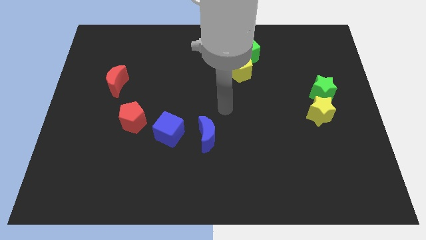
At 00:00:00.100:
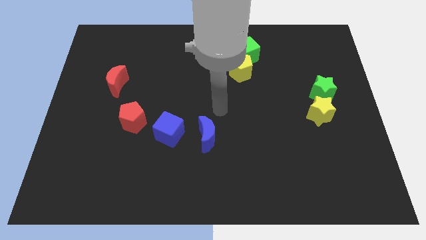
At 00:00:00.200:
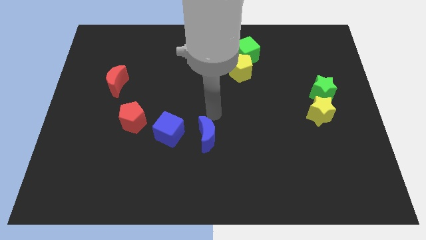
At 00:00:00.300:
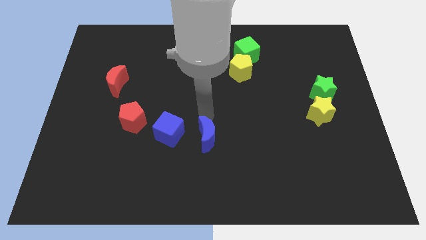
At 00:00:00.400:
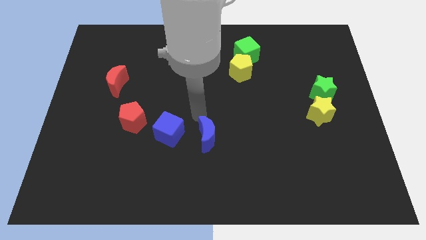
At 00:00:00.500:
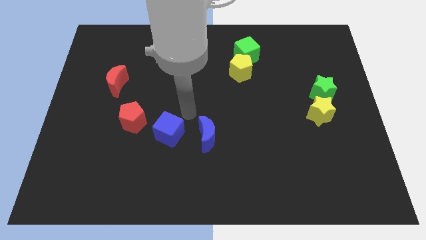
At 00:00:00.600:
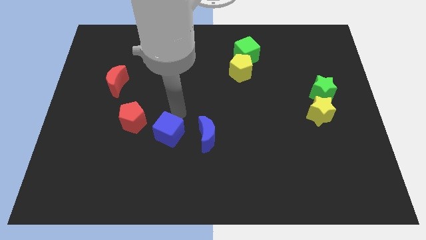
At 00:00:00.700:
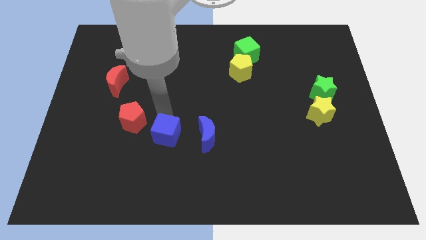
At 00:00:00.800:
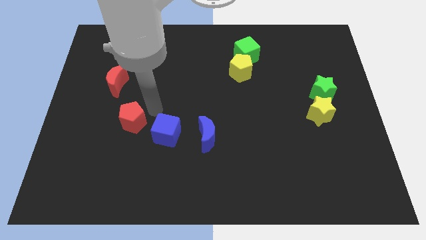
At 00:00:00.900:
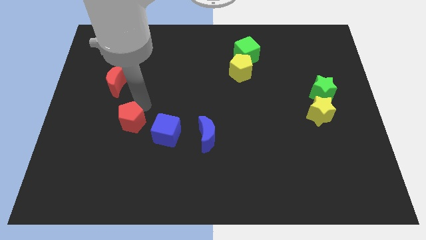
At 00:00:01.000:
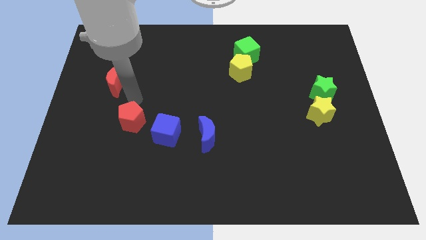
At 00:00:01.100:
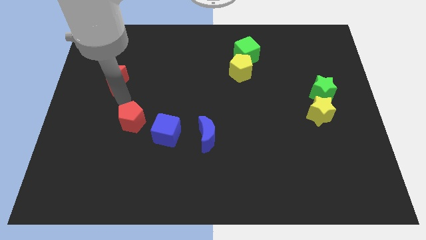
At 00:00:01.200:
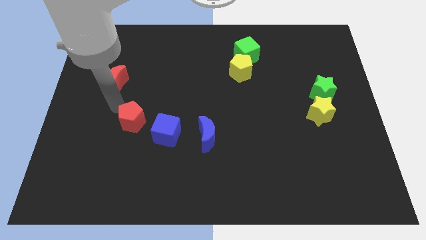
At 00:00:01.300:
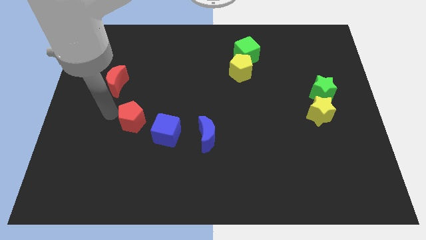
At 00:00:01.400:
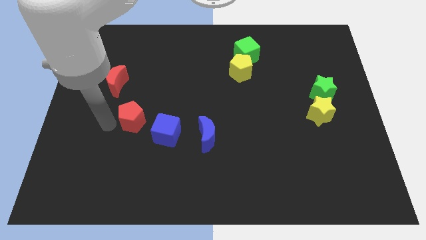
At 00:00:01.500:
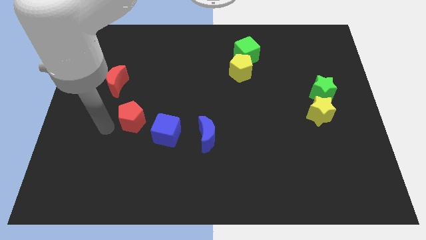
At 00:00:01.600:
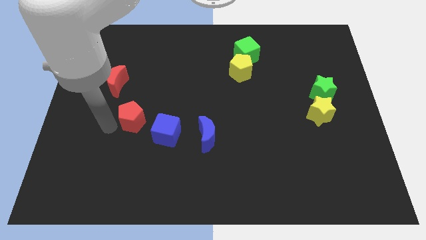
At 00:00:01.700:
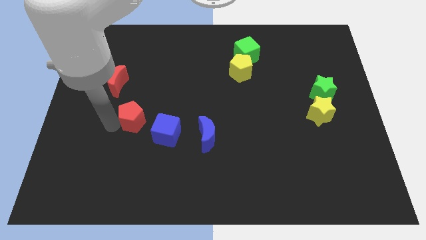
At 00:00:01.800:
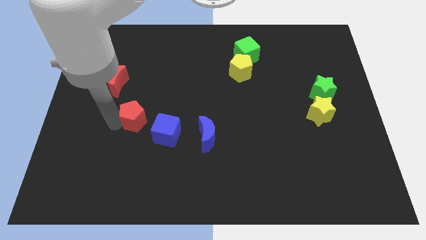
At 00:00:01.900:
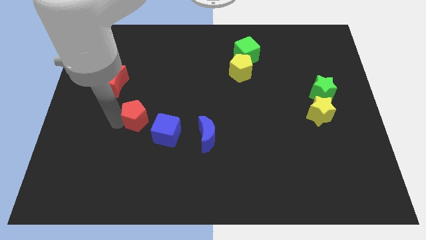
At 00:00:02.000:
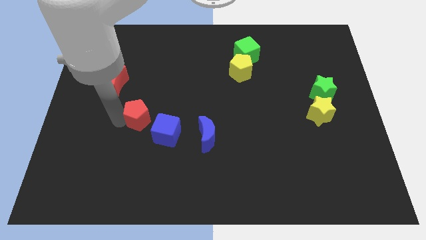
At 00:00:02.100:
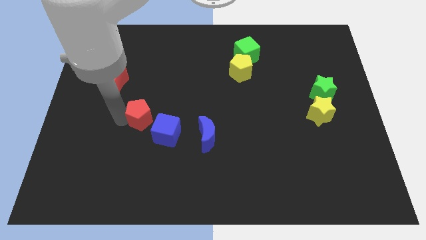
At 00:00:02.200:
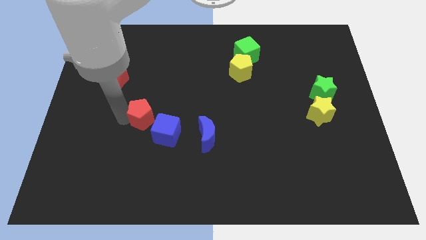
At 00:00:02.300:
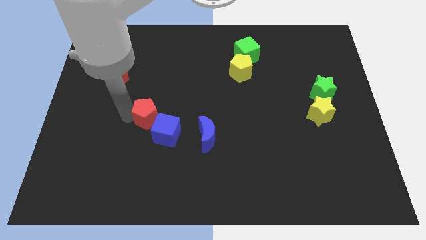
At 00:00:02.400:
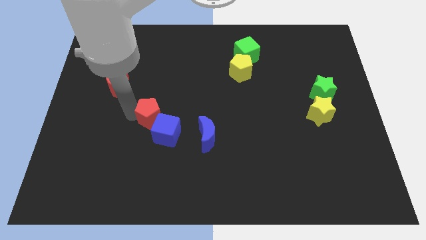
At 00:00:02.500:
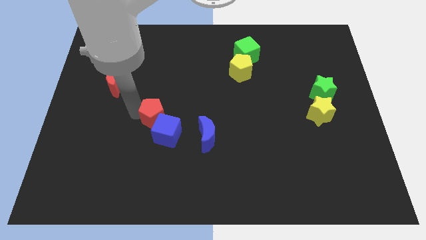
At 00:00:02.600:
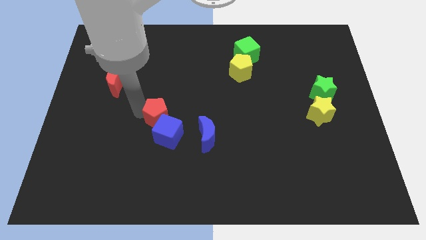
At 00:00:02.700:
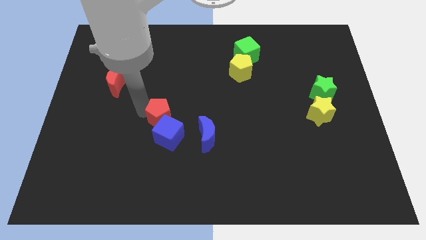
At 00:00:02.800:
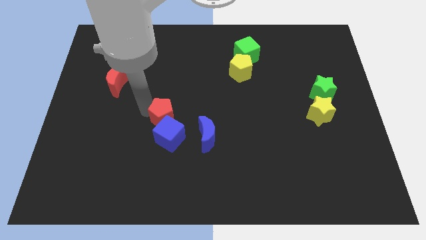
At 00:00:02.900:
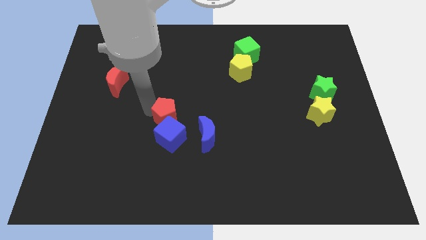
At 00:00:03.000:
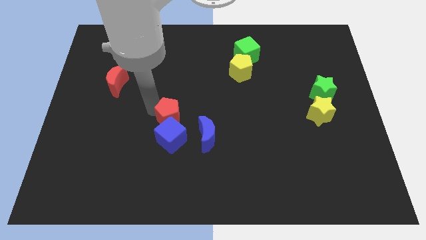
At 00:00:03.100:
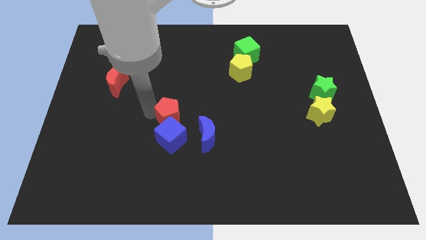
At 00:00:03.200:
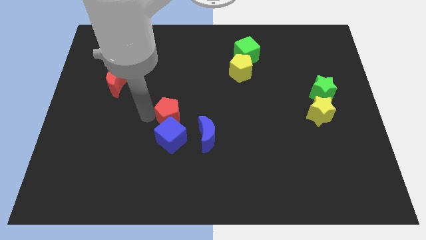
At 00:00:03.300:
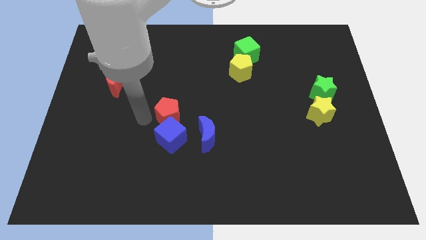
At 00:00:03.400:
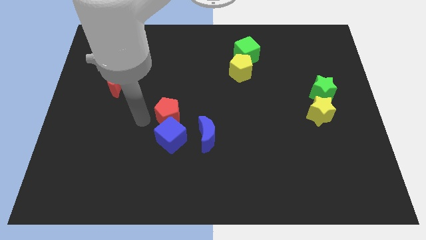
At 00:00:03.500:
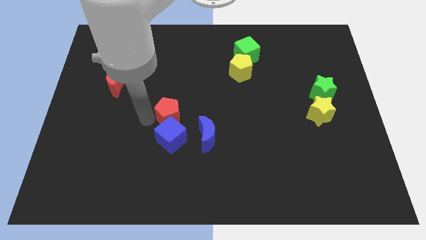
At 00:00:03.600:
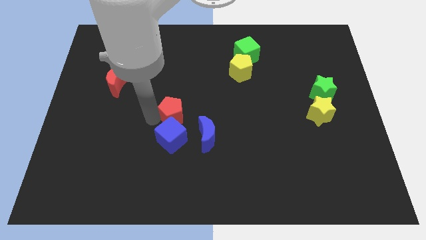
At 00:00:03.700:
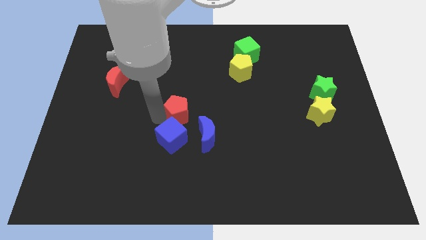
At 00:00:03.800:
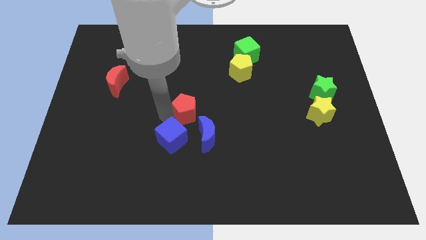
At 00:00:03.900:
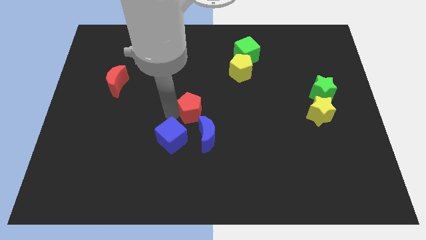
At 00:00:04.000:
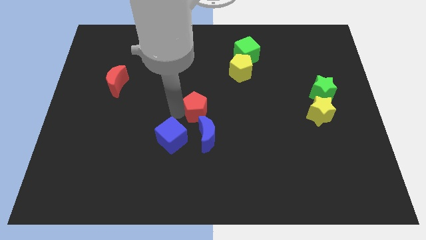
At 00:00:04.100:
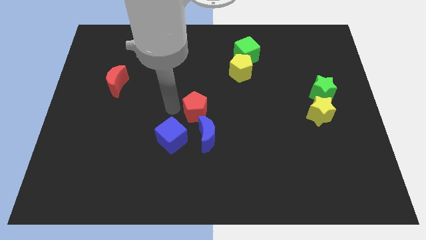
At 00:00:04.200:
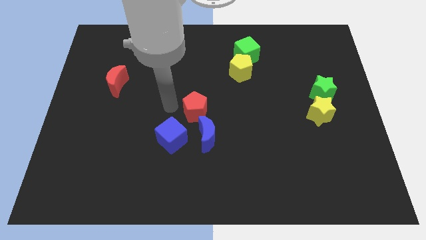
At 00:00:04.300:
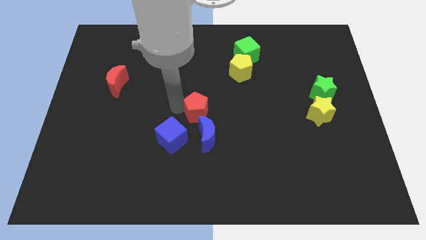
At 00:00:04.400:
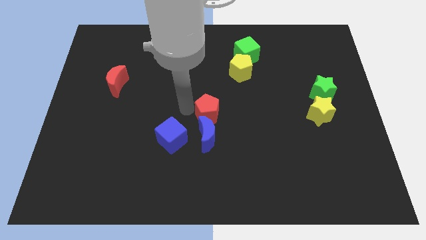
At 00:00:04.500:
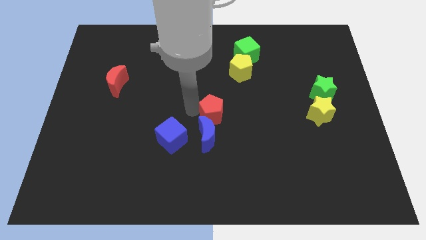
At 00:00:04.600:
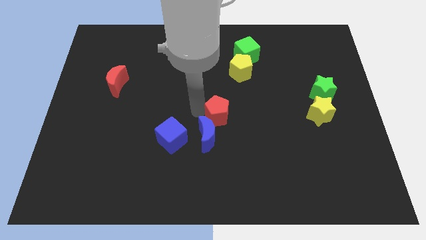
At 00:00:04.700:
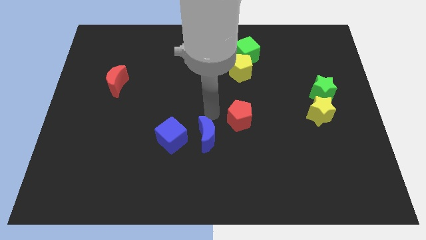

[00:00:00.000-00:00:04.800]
move the red pentagon right

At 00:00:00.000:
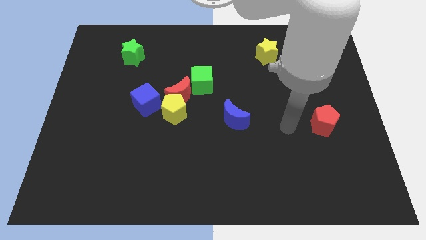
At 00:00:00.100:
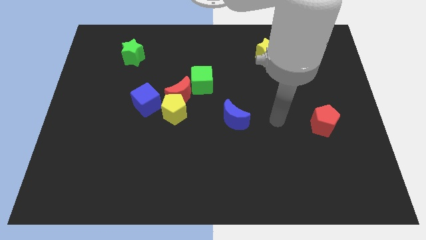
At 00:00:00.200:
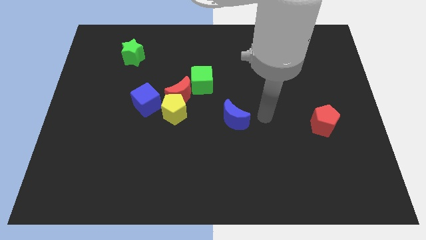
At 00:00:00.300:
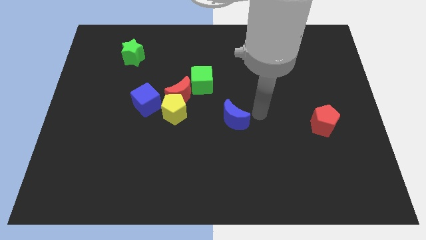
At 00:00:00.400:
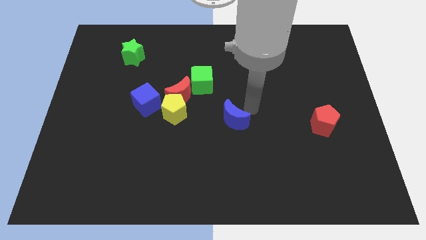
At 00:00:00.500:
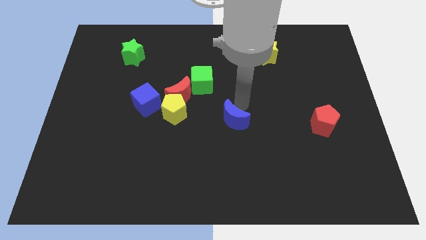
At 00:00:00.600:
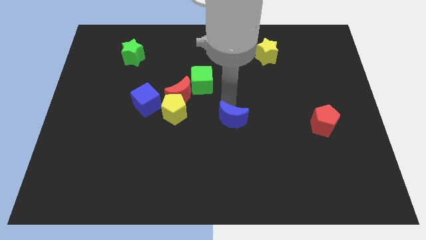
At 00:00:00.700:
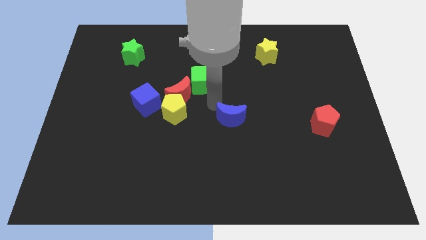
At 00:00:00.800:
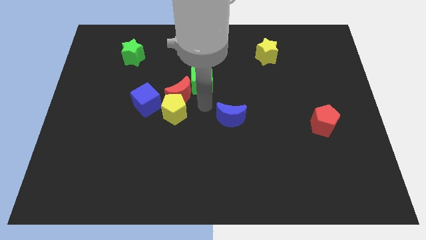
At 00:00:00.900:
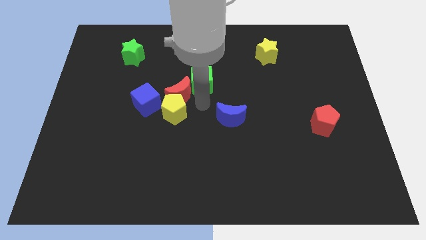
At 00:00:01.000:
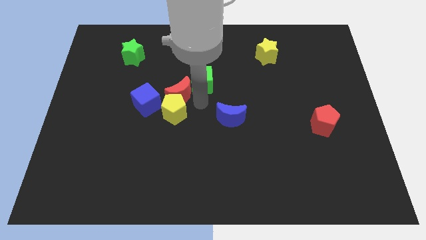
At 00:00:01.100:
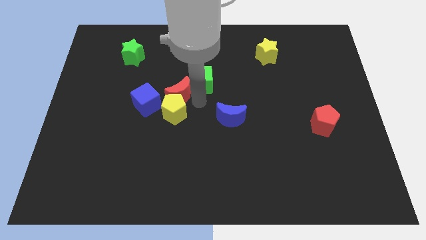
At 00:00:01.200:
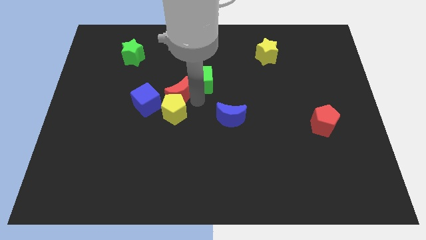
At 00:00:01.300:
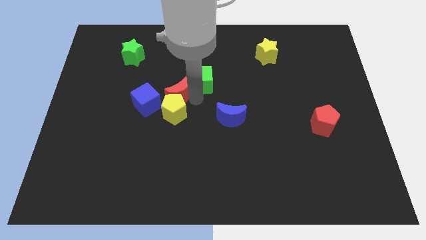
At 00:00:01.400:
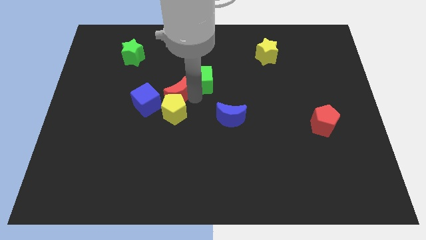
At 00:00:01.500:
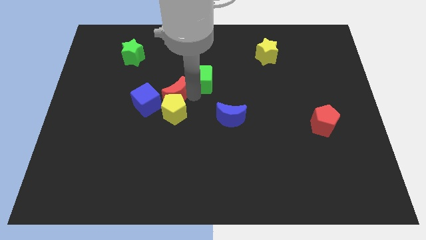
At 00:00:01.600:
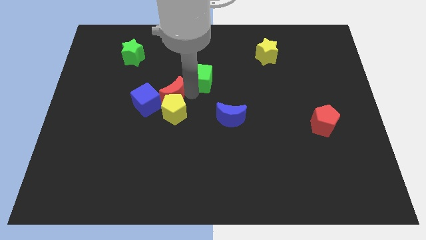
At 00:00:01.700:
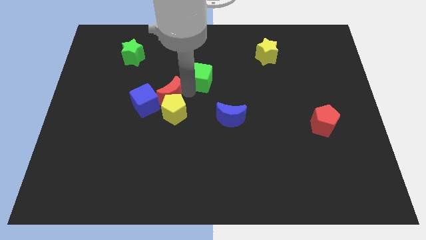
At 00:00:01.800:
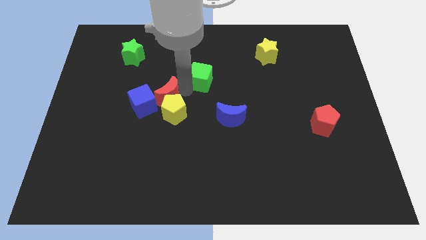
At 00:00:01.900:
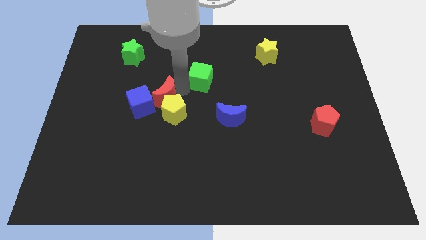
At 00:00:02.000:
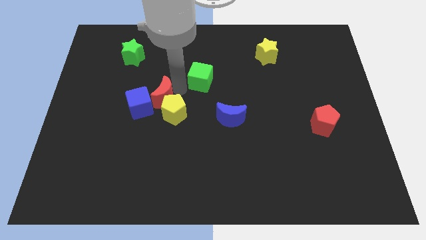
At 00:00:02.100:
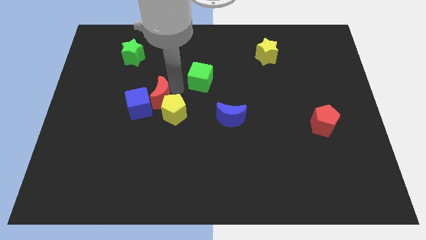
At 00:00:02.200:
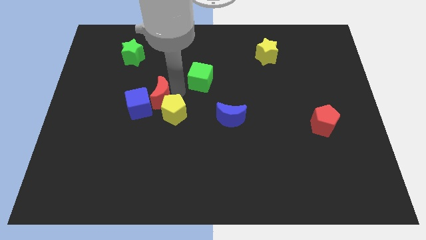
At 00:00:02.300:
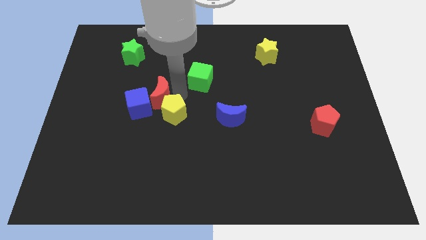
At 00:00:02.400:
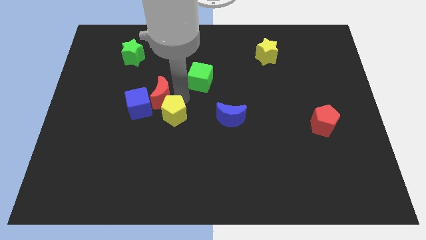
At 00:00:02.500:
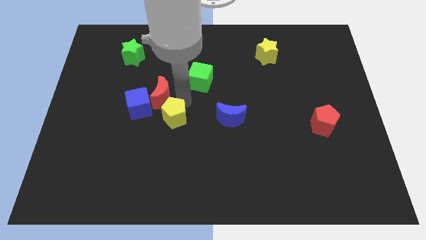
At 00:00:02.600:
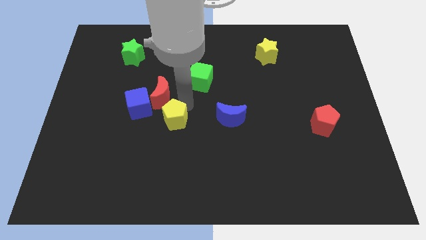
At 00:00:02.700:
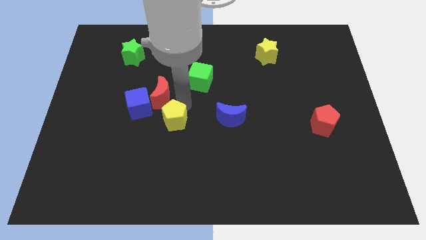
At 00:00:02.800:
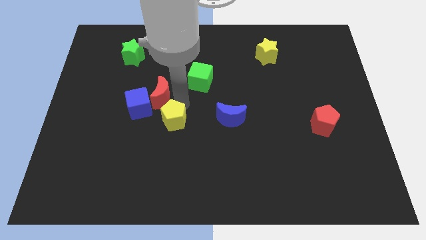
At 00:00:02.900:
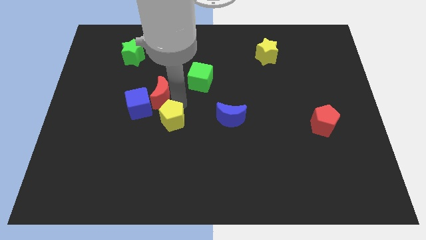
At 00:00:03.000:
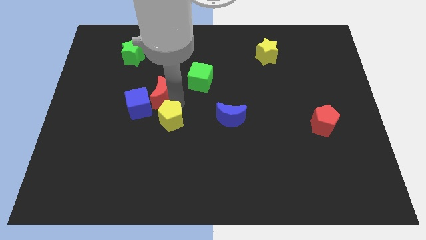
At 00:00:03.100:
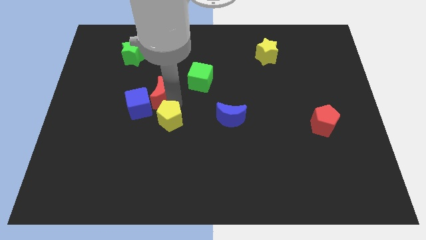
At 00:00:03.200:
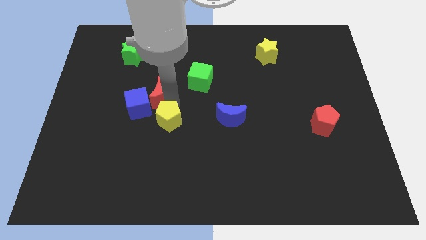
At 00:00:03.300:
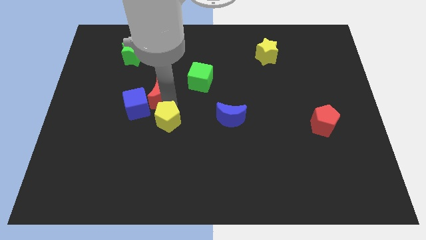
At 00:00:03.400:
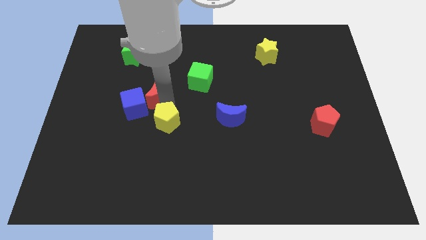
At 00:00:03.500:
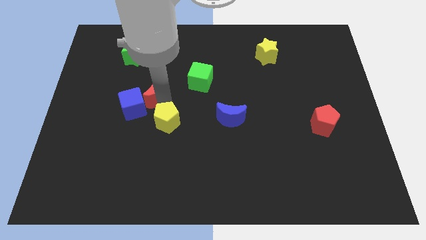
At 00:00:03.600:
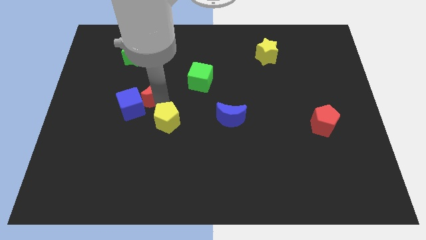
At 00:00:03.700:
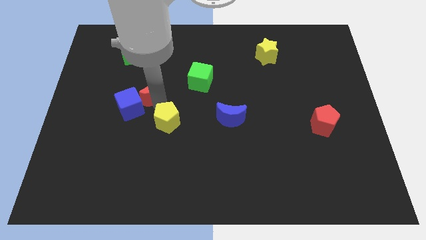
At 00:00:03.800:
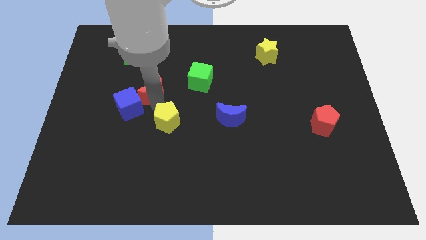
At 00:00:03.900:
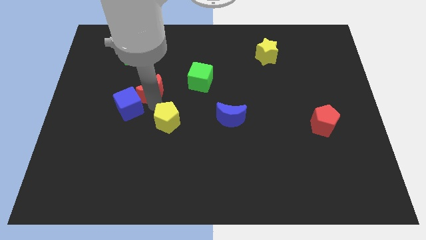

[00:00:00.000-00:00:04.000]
move the red moon to the left a little bit
